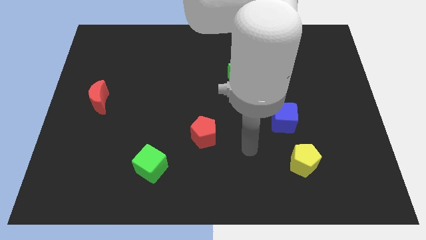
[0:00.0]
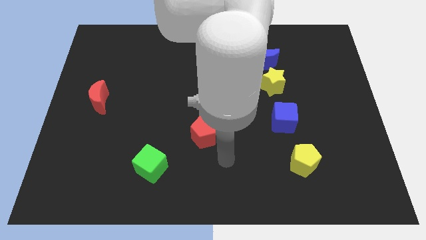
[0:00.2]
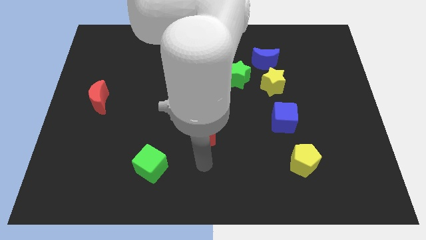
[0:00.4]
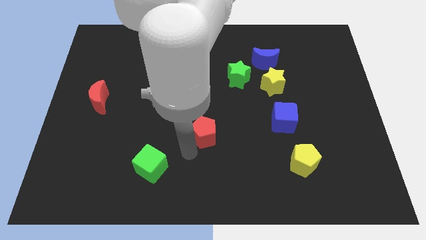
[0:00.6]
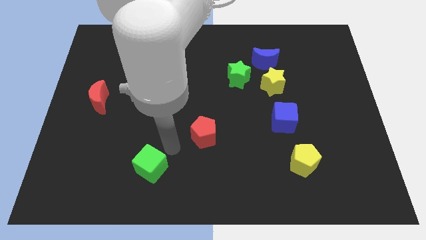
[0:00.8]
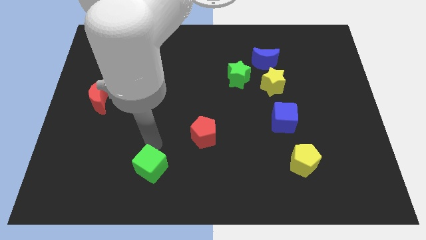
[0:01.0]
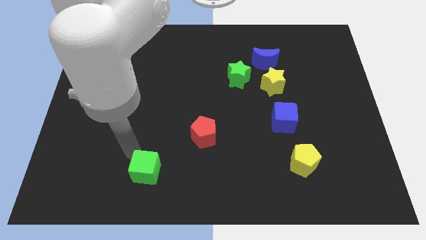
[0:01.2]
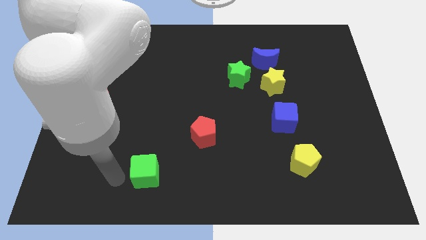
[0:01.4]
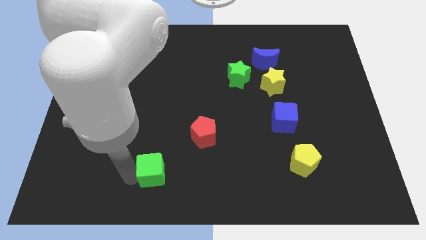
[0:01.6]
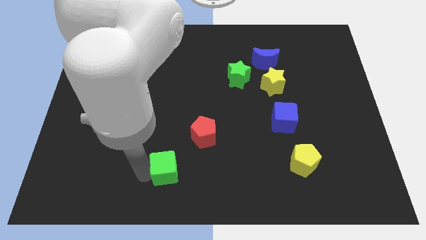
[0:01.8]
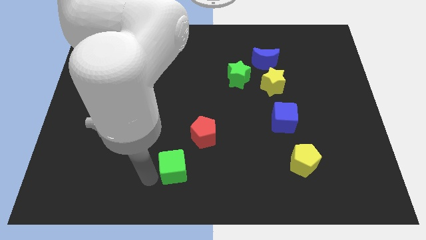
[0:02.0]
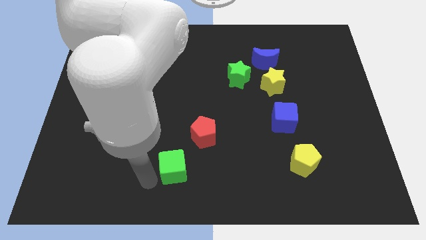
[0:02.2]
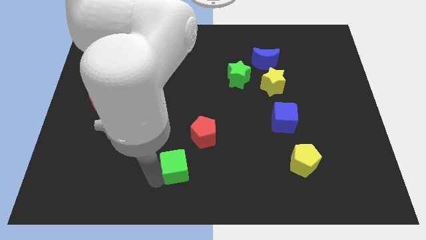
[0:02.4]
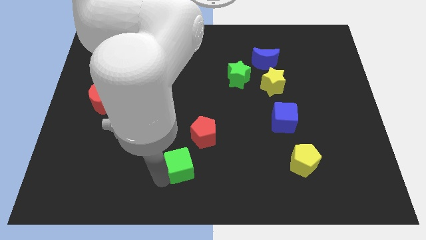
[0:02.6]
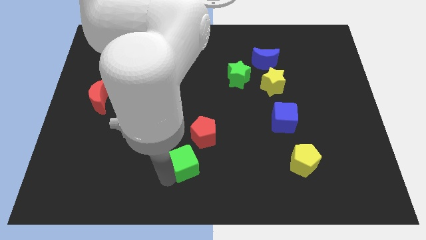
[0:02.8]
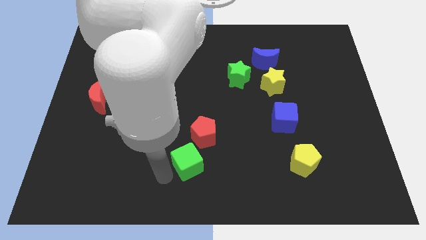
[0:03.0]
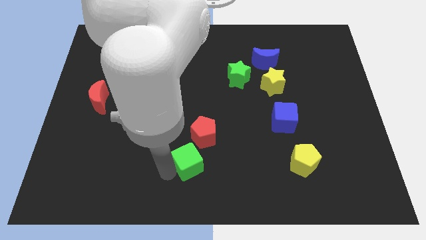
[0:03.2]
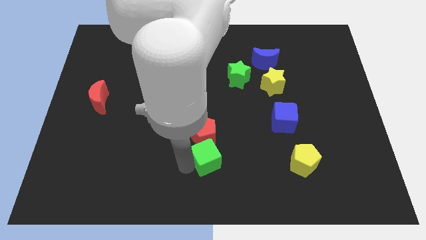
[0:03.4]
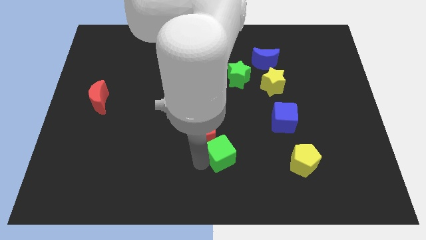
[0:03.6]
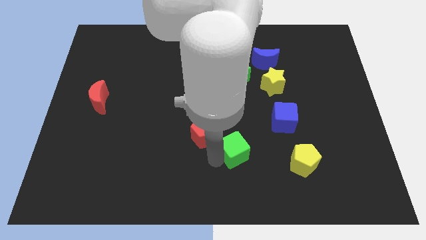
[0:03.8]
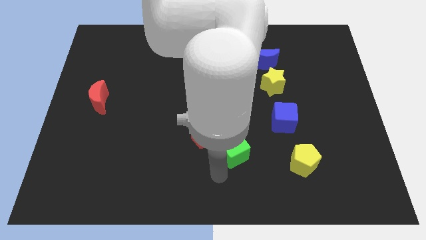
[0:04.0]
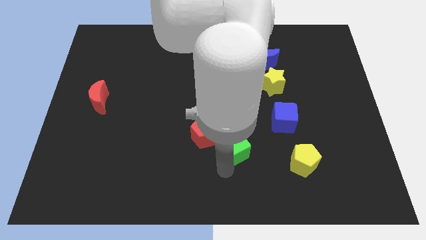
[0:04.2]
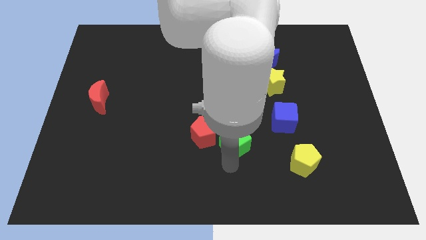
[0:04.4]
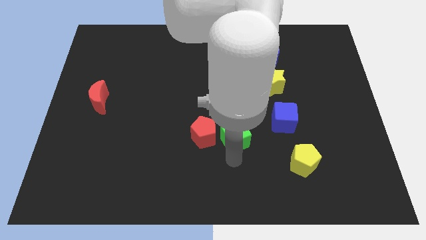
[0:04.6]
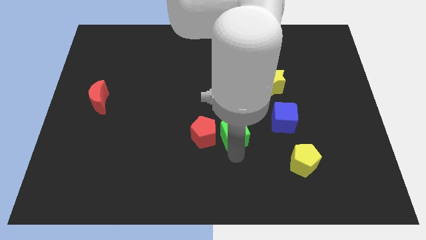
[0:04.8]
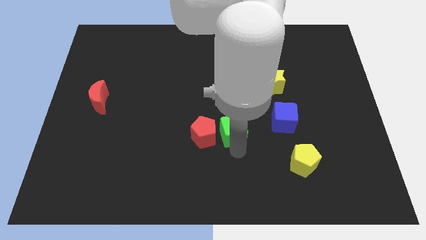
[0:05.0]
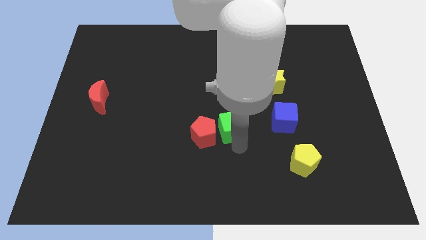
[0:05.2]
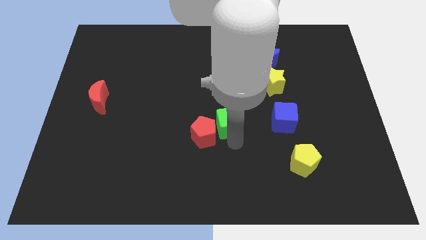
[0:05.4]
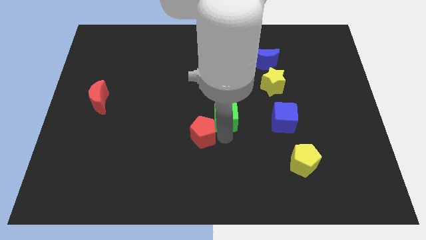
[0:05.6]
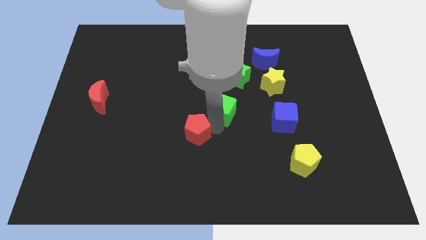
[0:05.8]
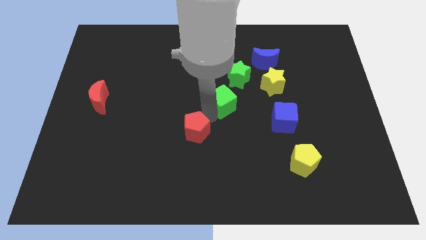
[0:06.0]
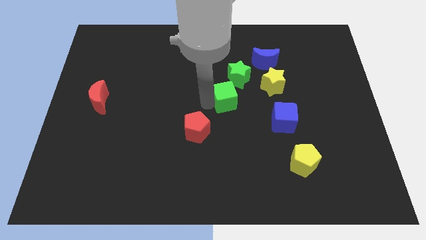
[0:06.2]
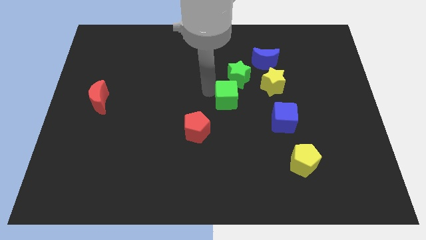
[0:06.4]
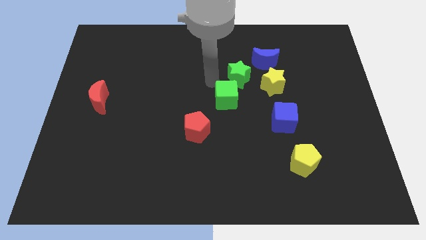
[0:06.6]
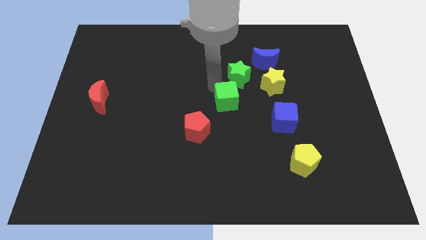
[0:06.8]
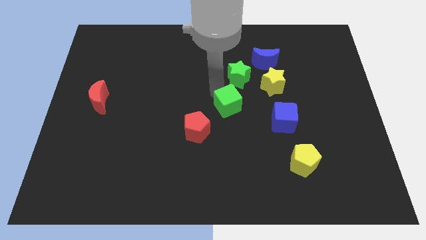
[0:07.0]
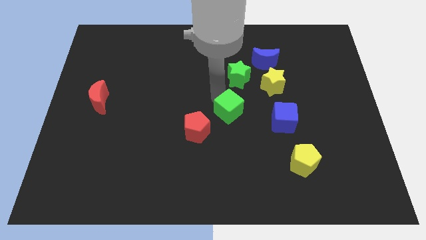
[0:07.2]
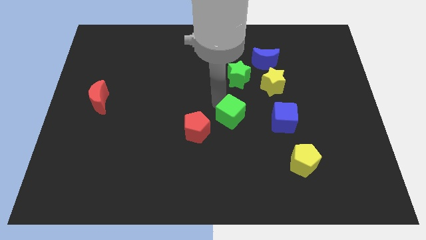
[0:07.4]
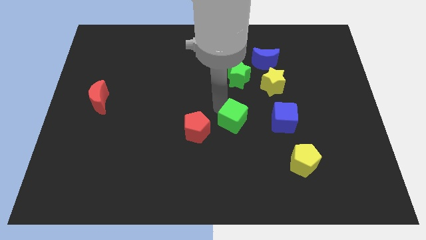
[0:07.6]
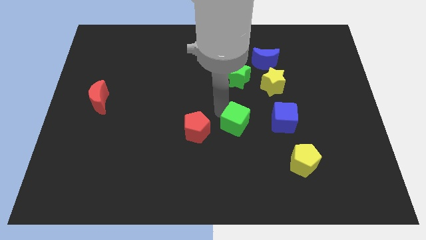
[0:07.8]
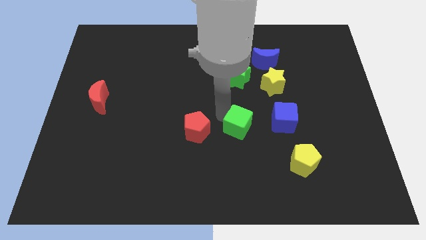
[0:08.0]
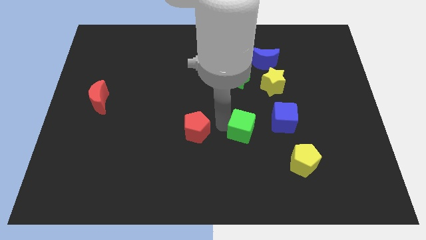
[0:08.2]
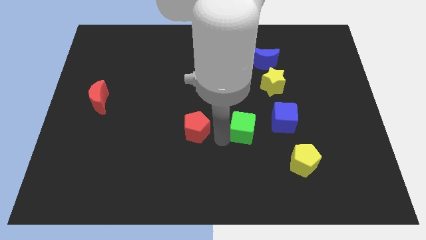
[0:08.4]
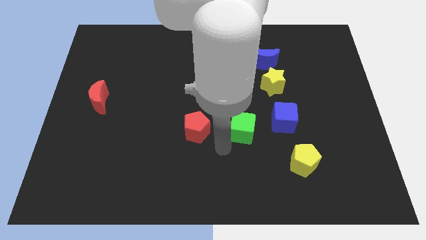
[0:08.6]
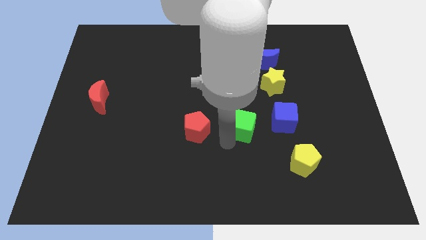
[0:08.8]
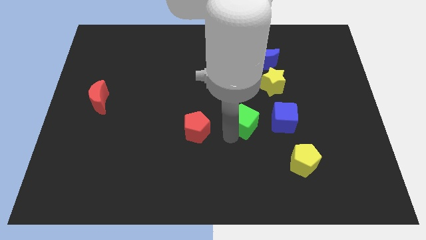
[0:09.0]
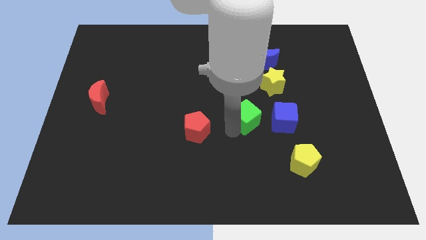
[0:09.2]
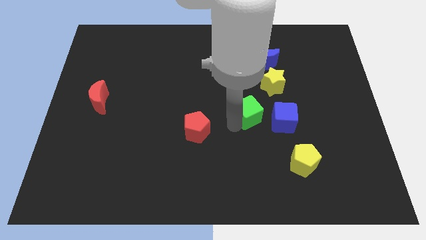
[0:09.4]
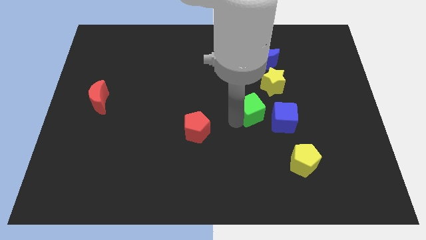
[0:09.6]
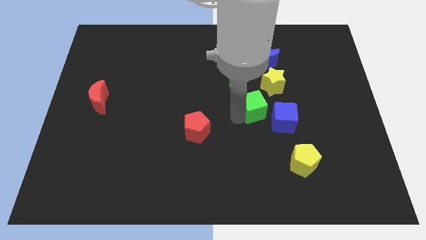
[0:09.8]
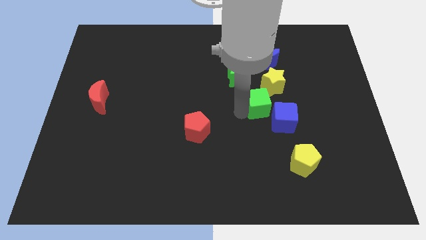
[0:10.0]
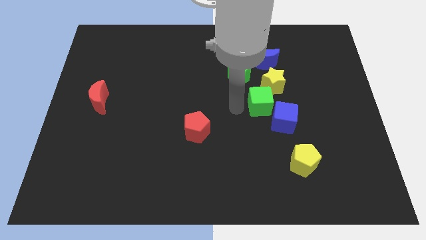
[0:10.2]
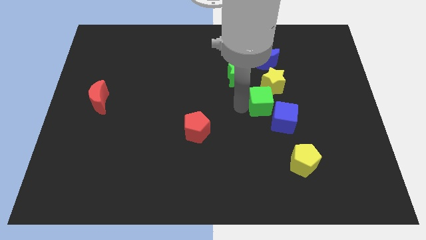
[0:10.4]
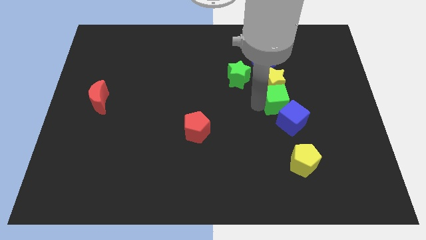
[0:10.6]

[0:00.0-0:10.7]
slide the green cube to the bottom right of the yellow star

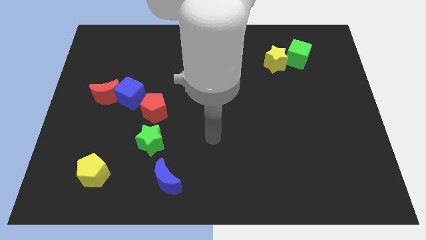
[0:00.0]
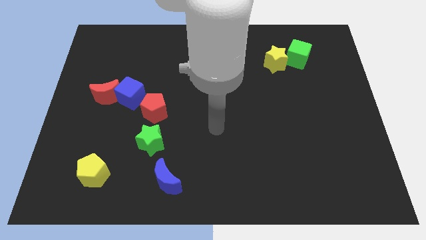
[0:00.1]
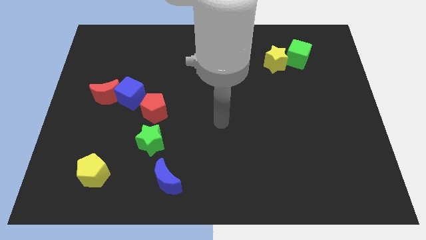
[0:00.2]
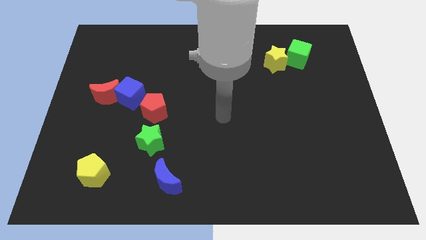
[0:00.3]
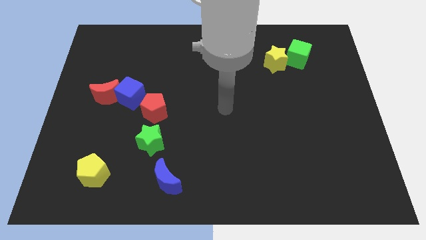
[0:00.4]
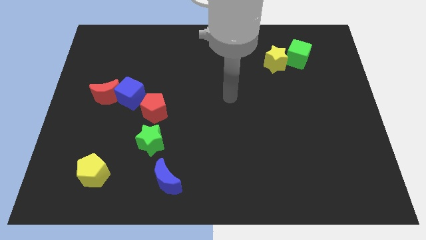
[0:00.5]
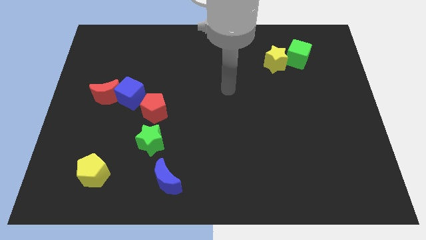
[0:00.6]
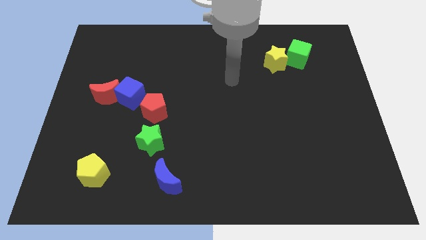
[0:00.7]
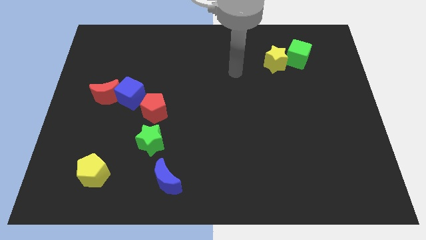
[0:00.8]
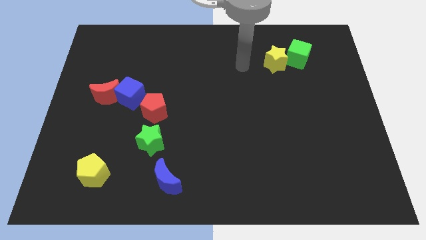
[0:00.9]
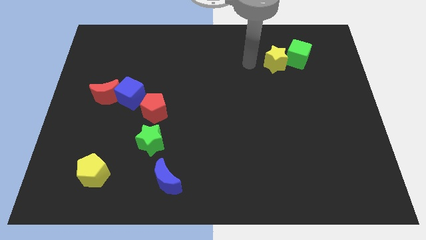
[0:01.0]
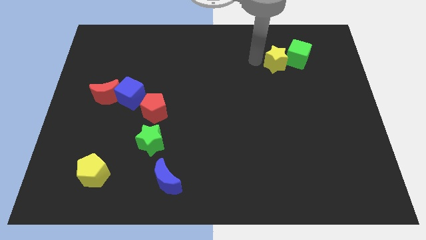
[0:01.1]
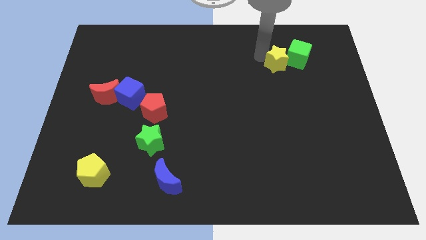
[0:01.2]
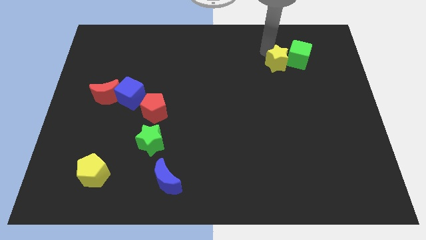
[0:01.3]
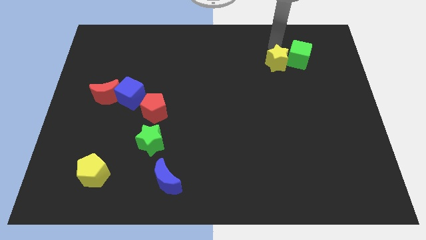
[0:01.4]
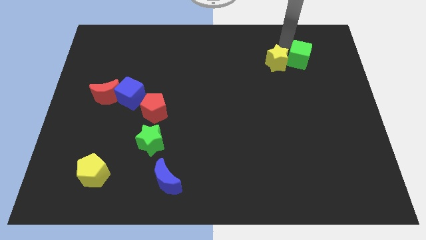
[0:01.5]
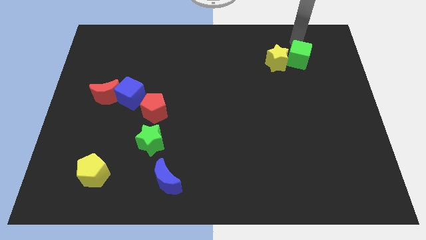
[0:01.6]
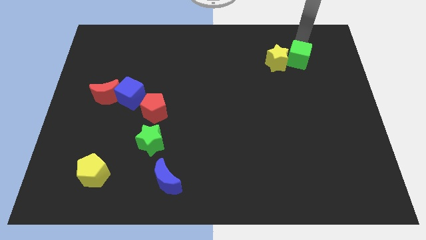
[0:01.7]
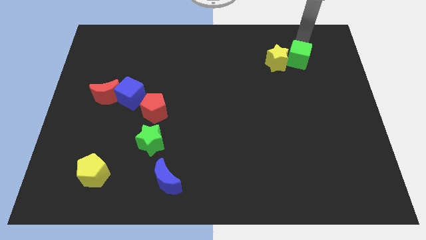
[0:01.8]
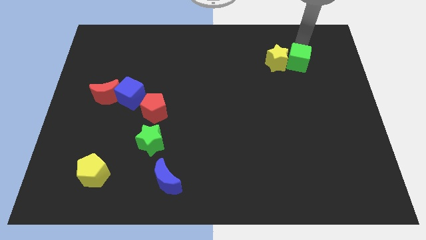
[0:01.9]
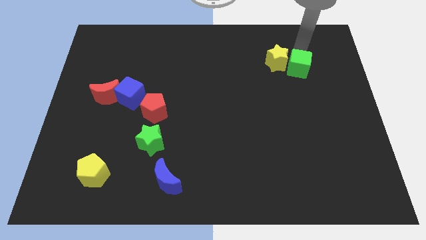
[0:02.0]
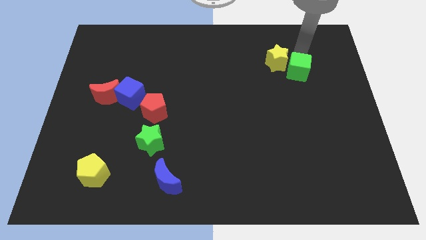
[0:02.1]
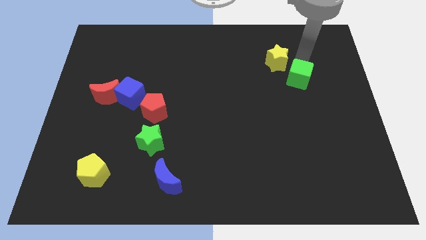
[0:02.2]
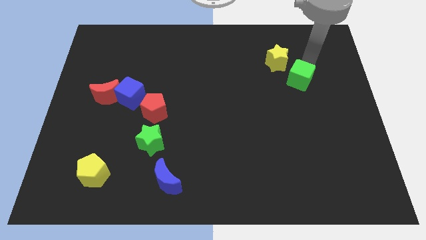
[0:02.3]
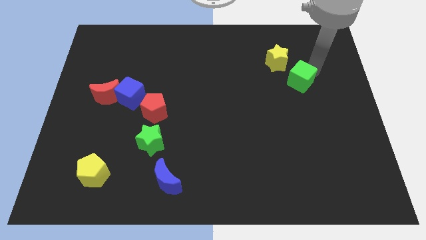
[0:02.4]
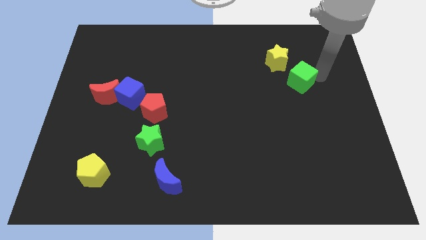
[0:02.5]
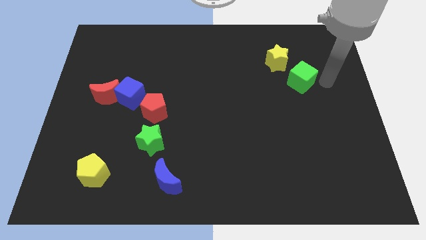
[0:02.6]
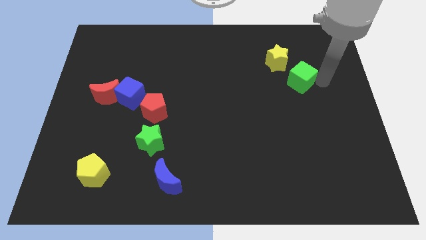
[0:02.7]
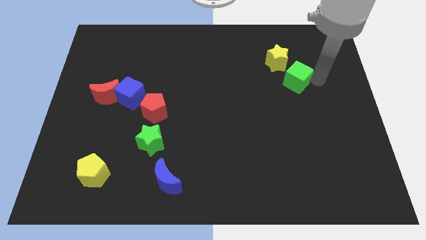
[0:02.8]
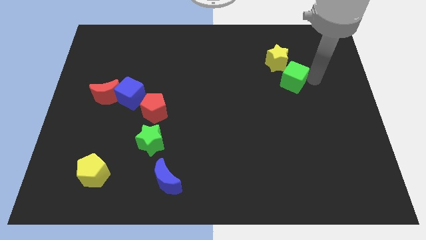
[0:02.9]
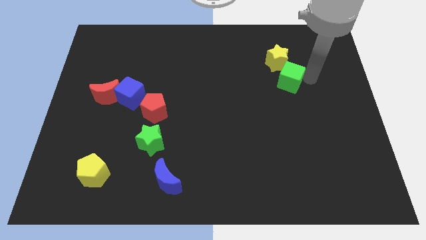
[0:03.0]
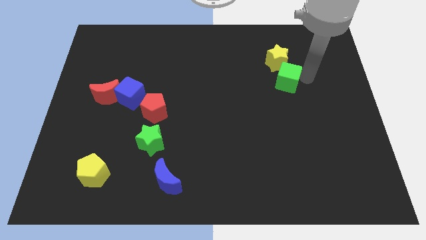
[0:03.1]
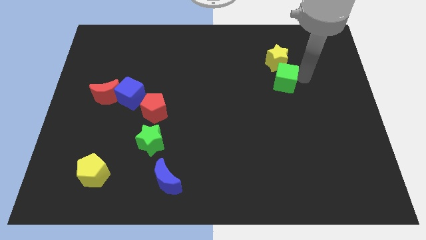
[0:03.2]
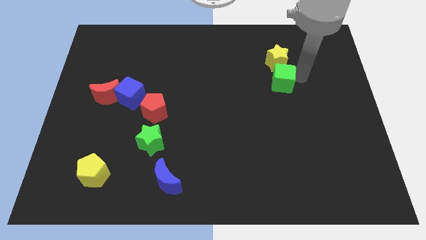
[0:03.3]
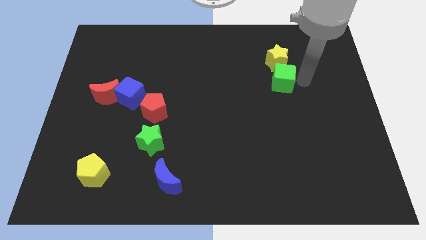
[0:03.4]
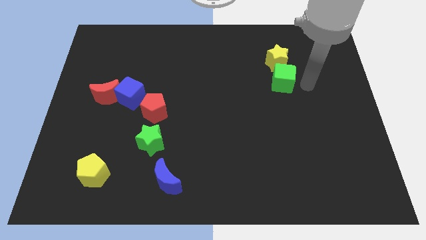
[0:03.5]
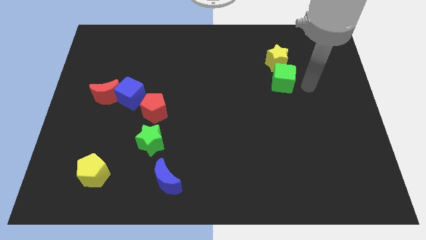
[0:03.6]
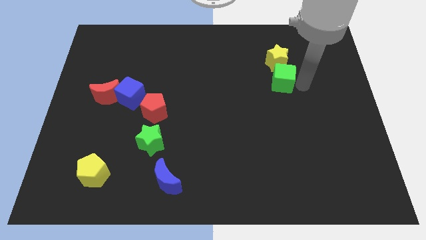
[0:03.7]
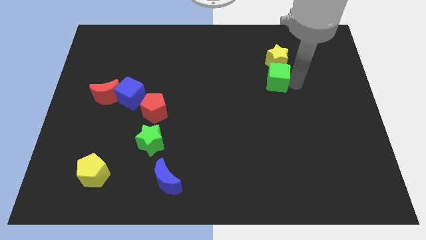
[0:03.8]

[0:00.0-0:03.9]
move the green cube to the bottom left of the yellow star
